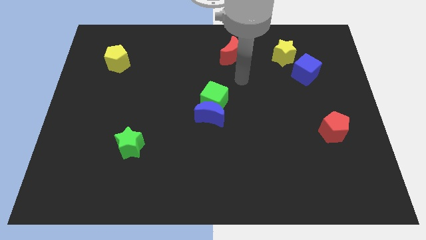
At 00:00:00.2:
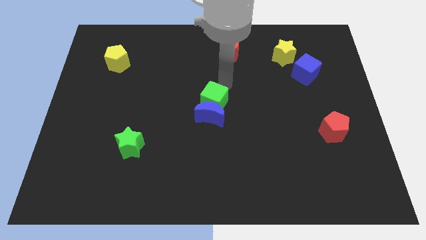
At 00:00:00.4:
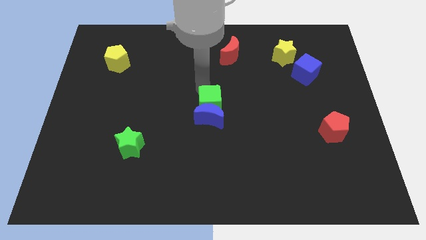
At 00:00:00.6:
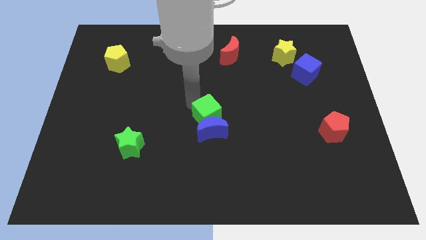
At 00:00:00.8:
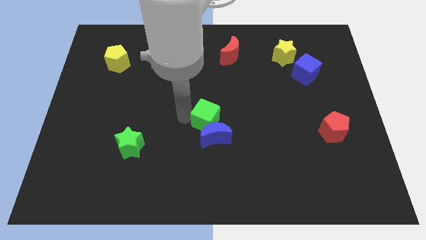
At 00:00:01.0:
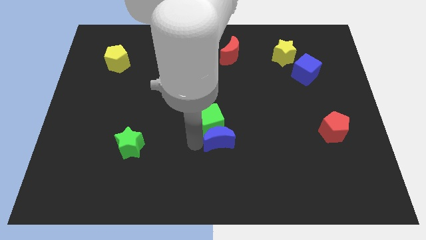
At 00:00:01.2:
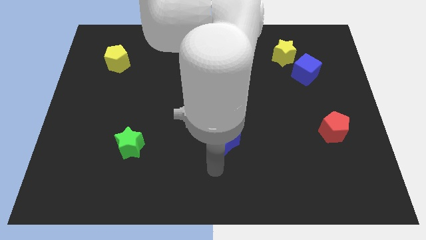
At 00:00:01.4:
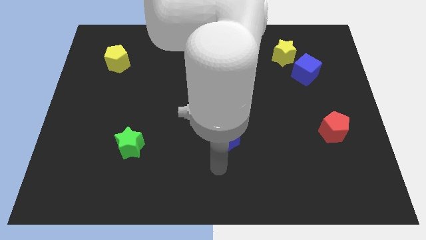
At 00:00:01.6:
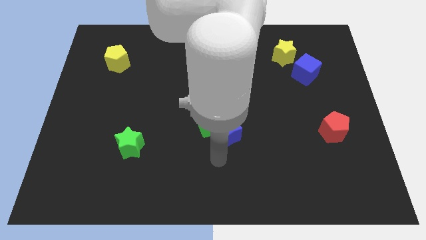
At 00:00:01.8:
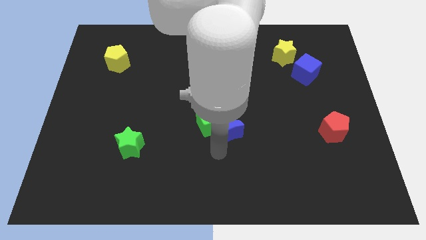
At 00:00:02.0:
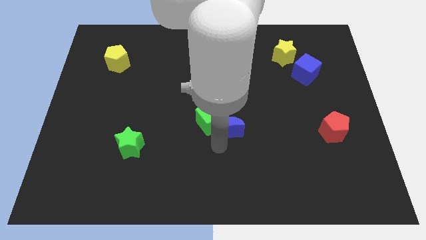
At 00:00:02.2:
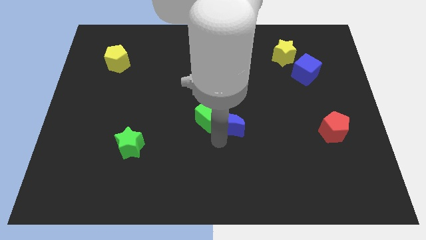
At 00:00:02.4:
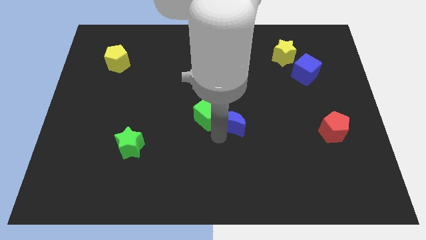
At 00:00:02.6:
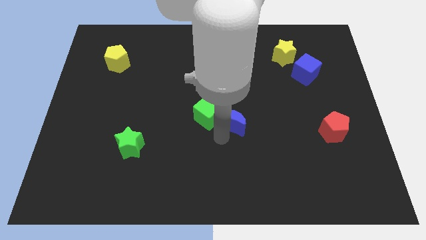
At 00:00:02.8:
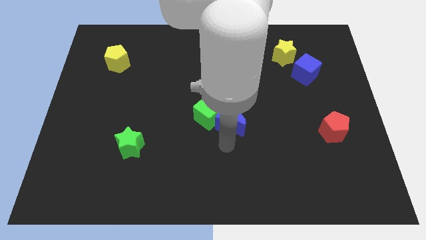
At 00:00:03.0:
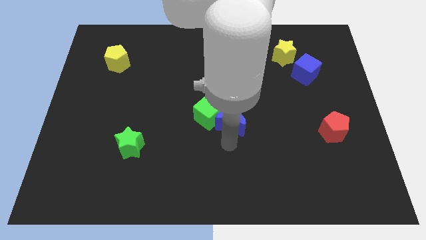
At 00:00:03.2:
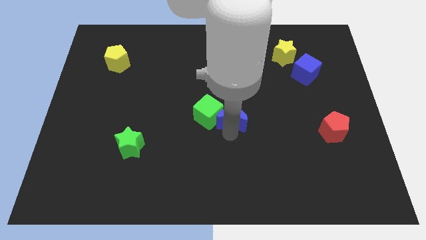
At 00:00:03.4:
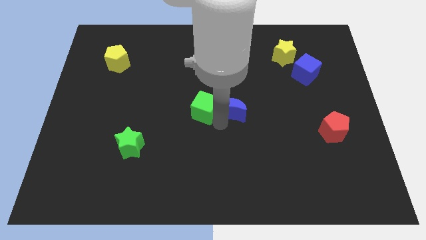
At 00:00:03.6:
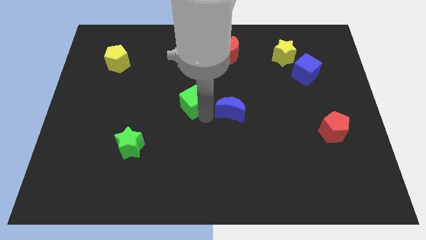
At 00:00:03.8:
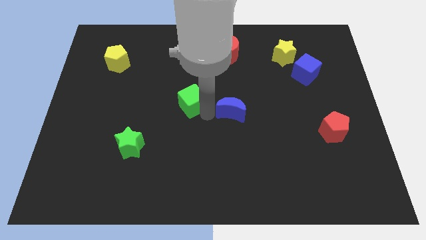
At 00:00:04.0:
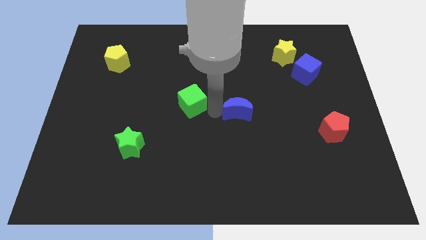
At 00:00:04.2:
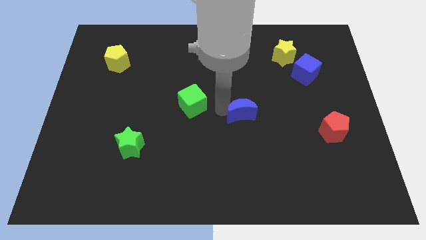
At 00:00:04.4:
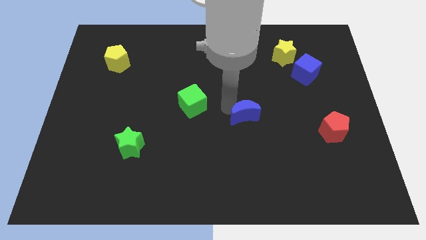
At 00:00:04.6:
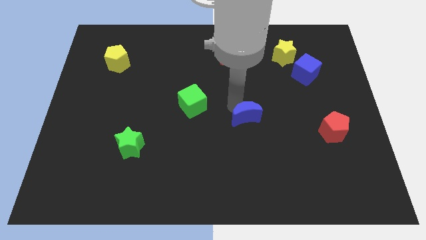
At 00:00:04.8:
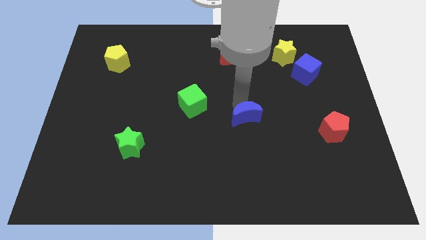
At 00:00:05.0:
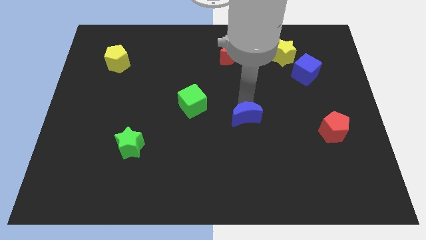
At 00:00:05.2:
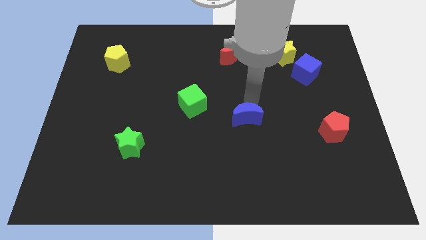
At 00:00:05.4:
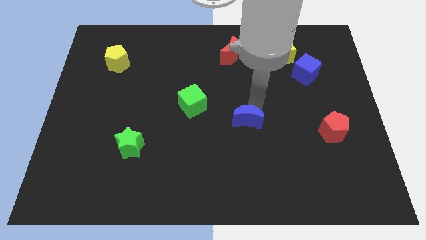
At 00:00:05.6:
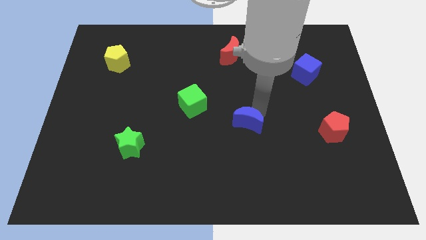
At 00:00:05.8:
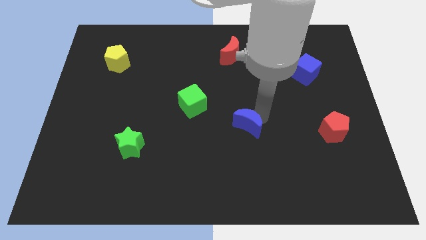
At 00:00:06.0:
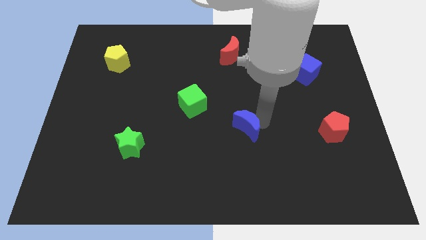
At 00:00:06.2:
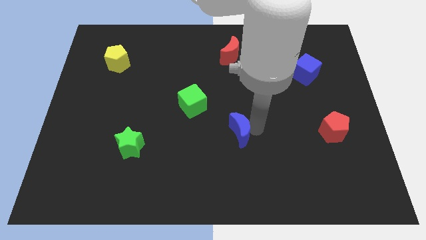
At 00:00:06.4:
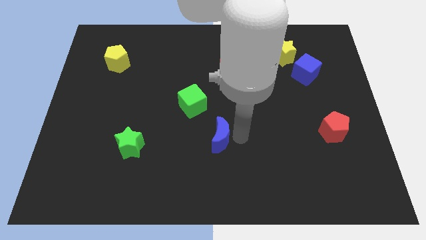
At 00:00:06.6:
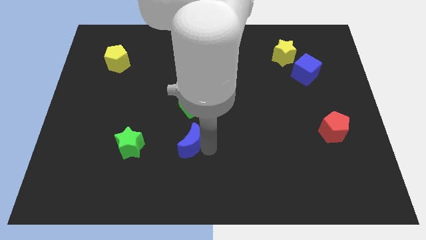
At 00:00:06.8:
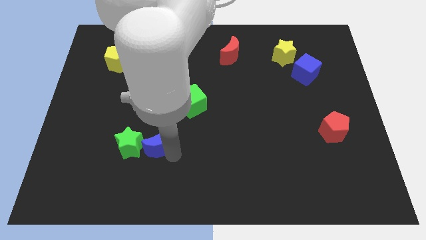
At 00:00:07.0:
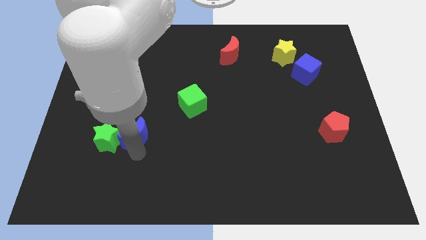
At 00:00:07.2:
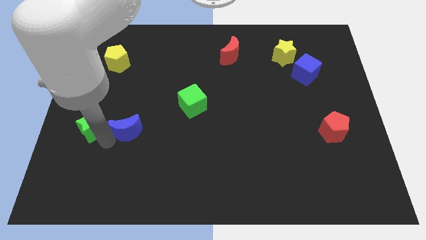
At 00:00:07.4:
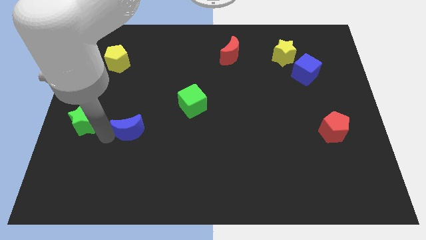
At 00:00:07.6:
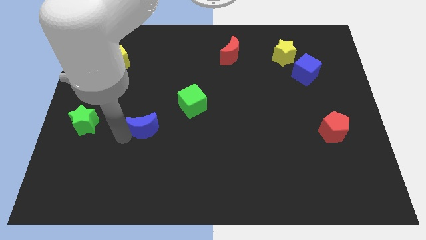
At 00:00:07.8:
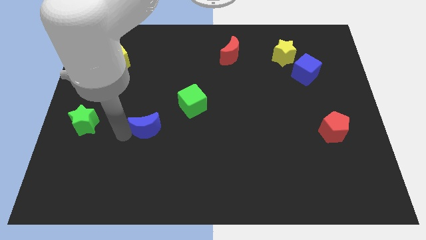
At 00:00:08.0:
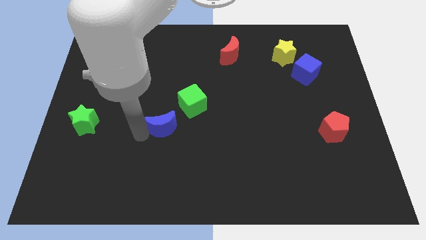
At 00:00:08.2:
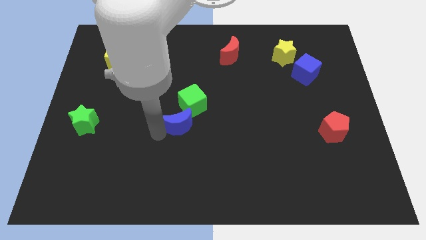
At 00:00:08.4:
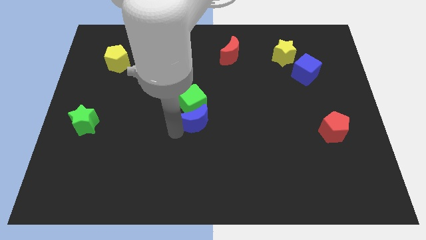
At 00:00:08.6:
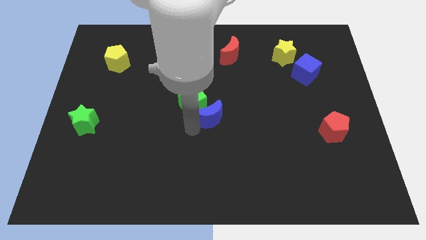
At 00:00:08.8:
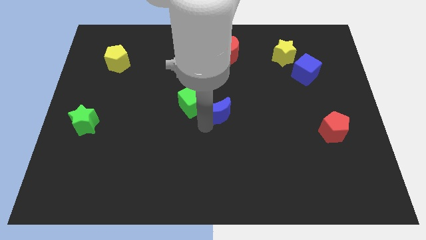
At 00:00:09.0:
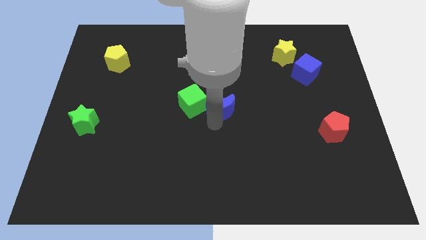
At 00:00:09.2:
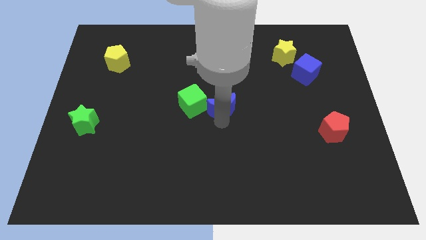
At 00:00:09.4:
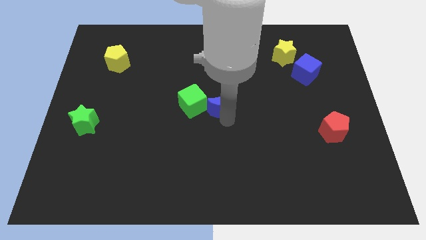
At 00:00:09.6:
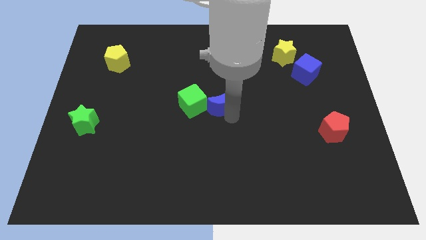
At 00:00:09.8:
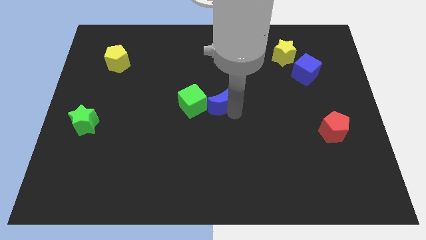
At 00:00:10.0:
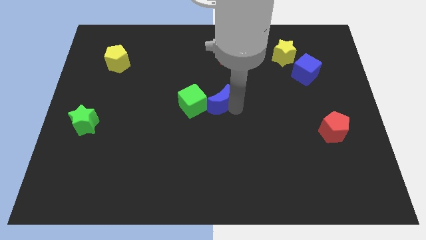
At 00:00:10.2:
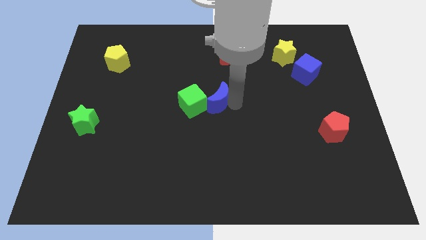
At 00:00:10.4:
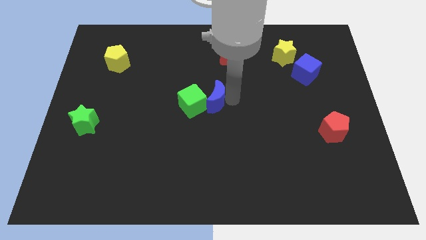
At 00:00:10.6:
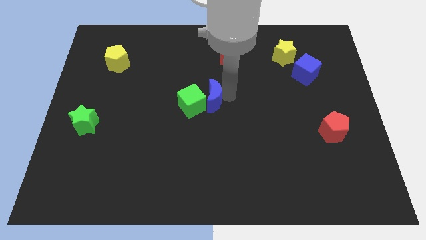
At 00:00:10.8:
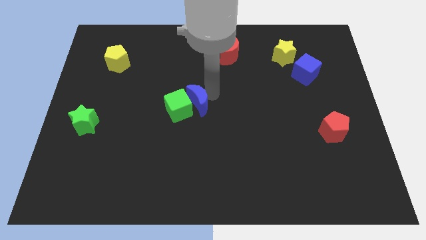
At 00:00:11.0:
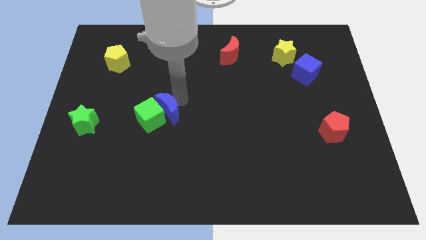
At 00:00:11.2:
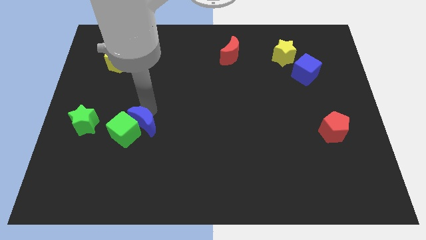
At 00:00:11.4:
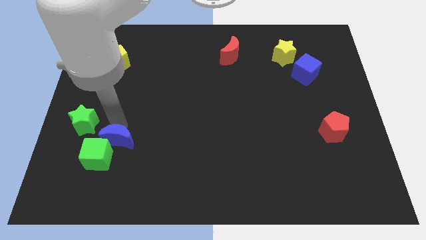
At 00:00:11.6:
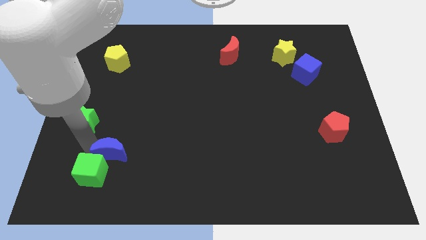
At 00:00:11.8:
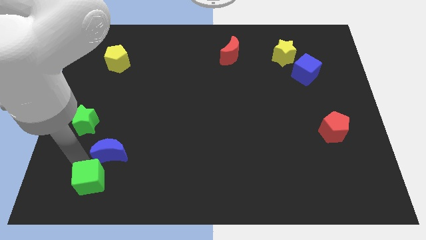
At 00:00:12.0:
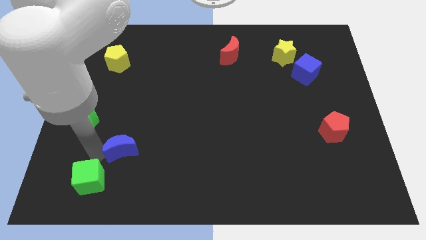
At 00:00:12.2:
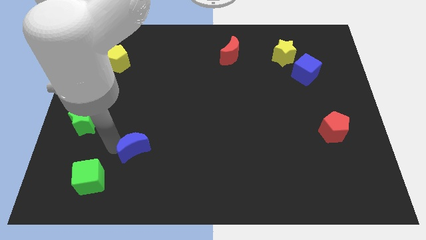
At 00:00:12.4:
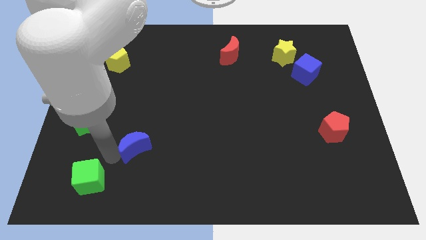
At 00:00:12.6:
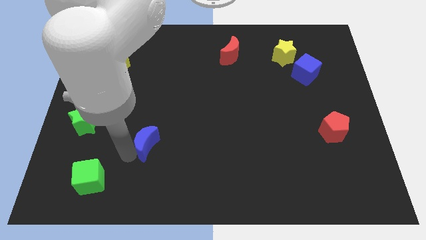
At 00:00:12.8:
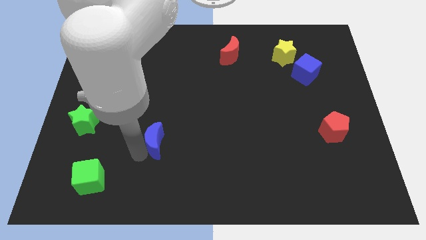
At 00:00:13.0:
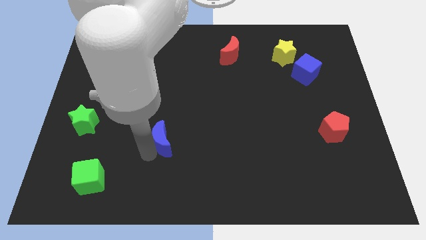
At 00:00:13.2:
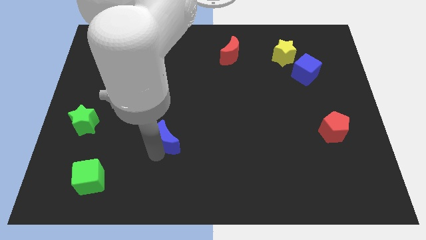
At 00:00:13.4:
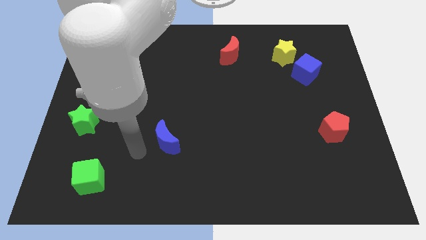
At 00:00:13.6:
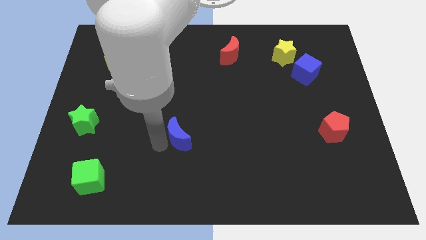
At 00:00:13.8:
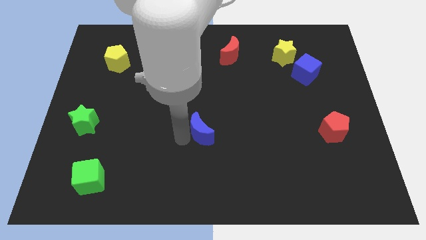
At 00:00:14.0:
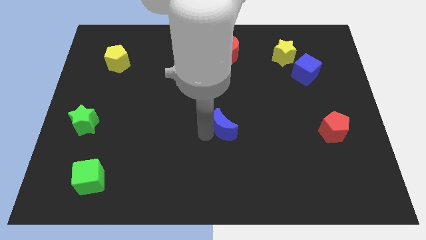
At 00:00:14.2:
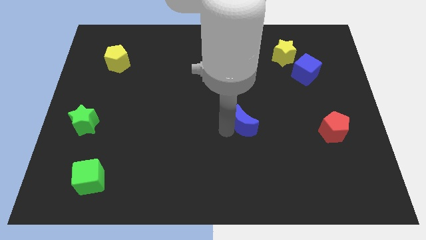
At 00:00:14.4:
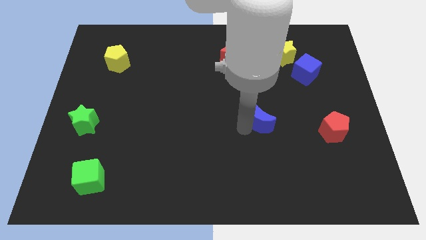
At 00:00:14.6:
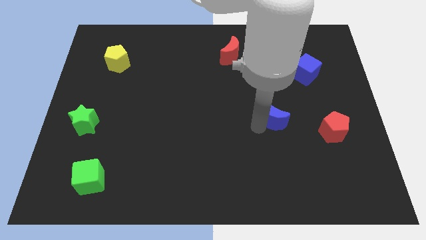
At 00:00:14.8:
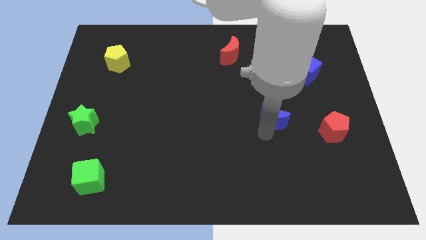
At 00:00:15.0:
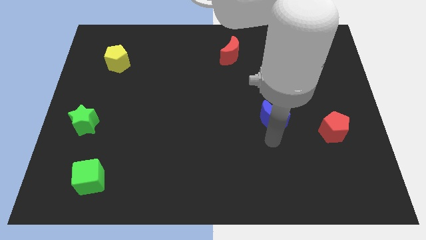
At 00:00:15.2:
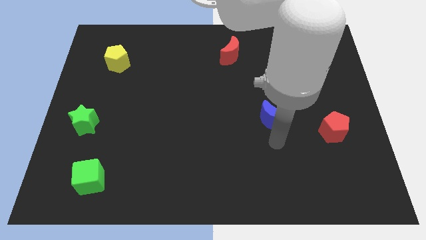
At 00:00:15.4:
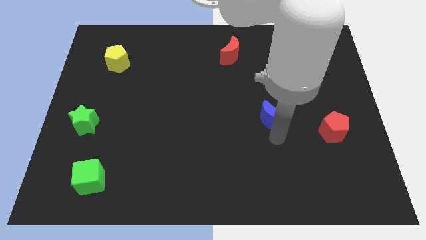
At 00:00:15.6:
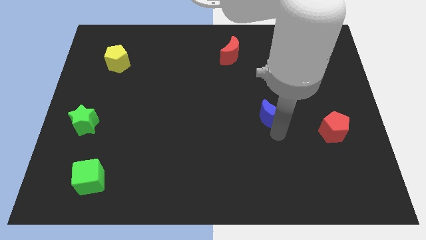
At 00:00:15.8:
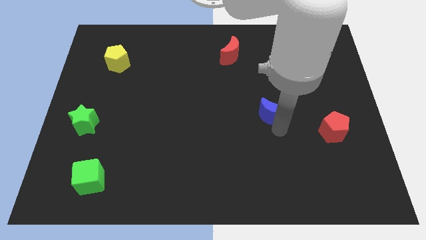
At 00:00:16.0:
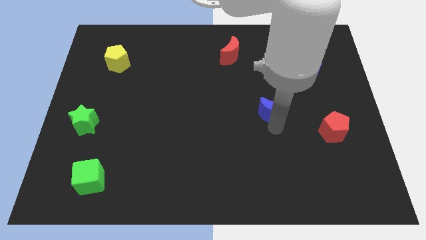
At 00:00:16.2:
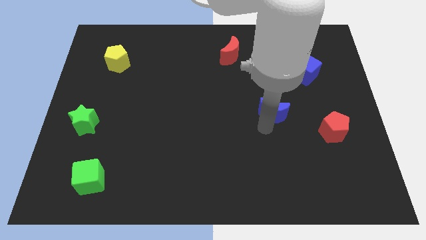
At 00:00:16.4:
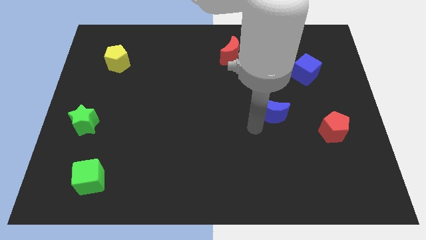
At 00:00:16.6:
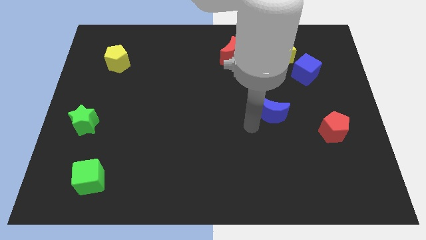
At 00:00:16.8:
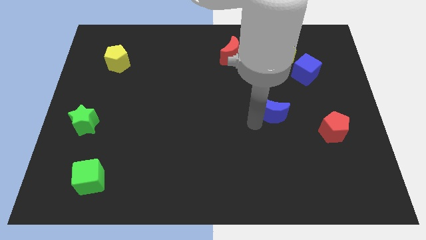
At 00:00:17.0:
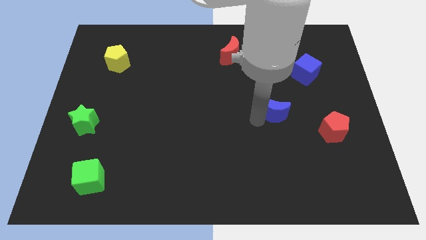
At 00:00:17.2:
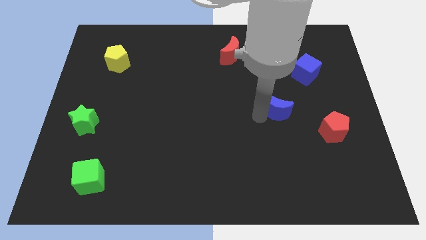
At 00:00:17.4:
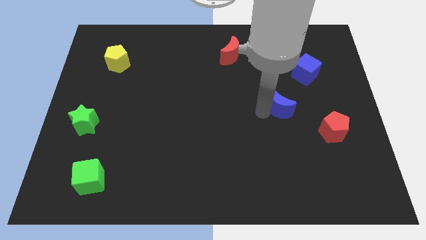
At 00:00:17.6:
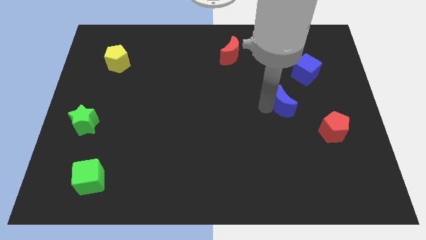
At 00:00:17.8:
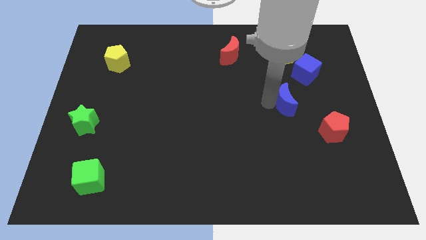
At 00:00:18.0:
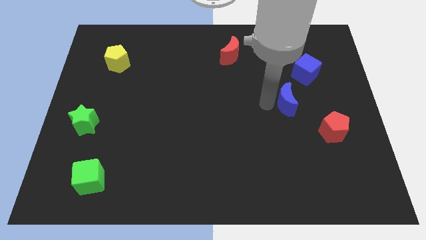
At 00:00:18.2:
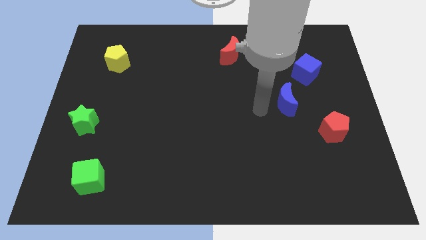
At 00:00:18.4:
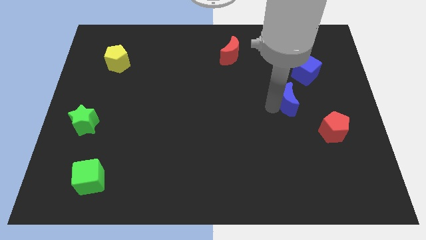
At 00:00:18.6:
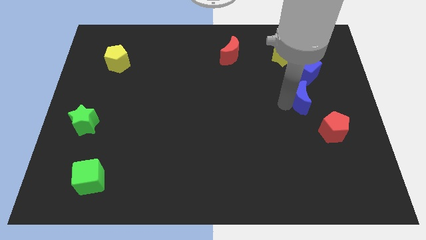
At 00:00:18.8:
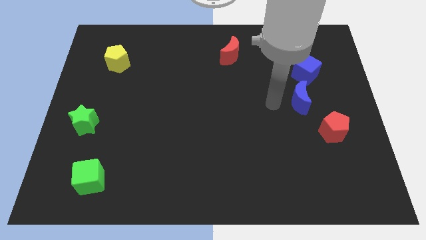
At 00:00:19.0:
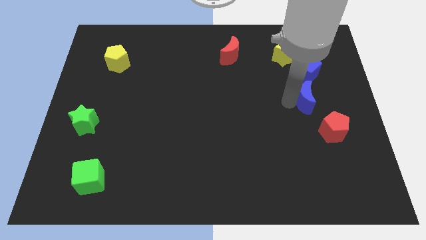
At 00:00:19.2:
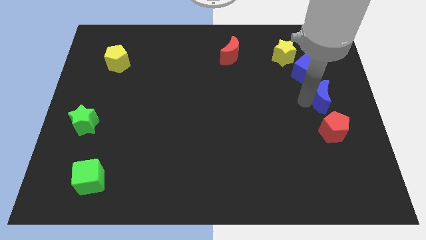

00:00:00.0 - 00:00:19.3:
move the blue moon to the center right
